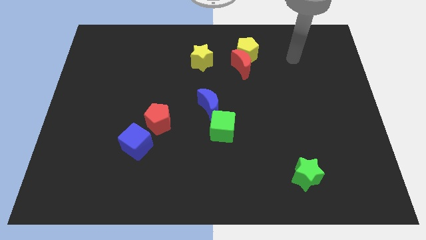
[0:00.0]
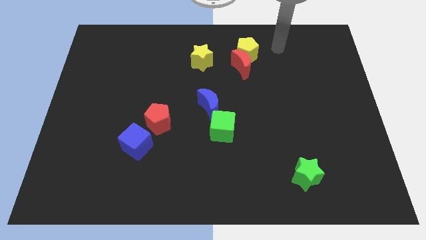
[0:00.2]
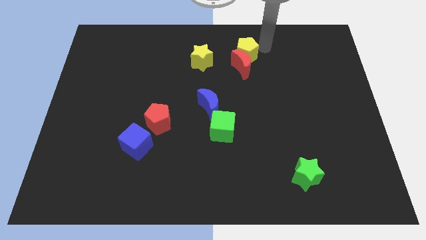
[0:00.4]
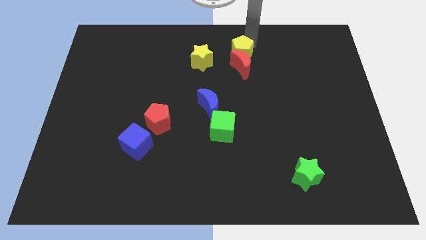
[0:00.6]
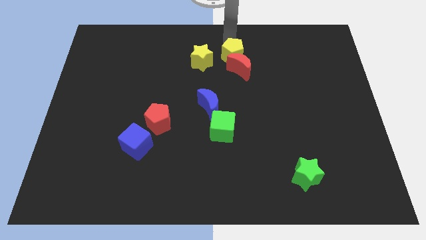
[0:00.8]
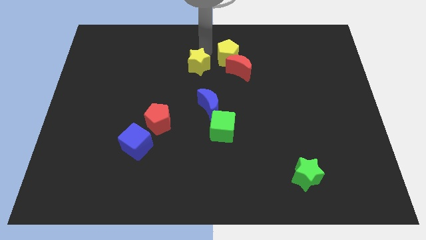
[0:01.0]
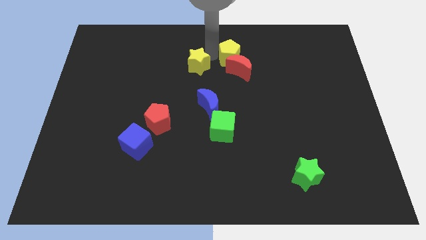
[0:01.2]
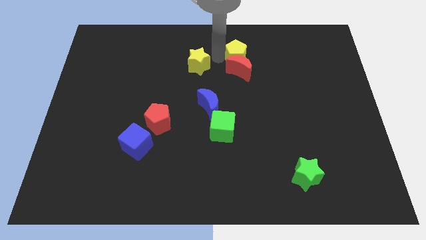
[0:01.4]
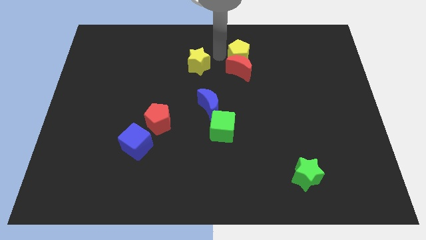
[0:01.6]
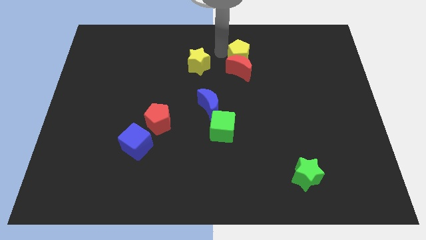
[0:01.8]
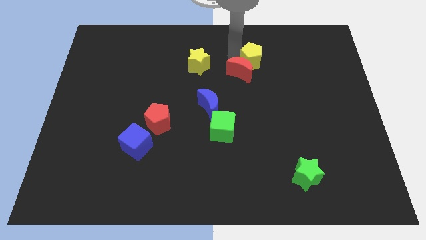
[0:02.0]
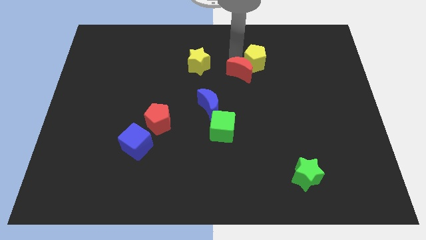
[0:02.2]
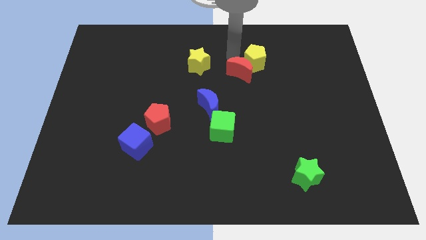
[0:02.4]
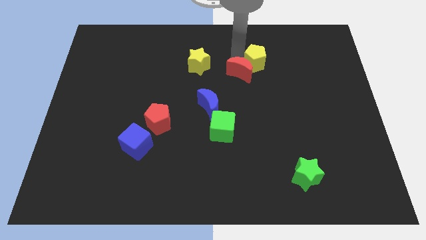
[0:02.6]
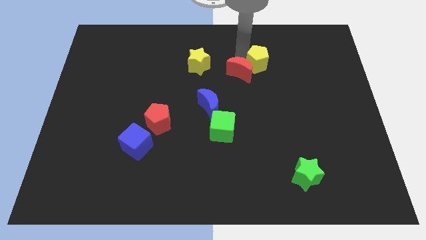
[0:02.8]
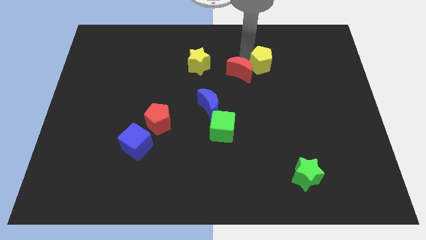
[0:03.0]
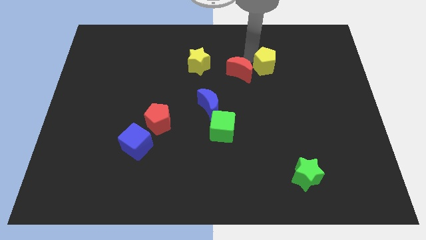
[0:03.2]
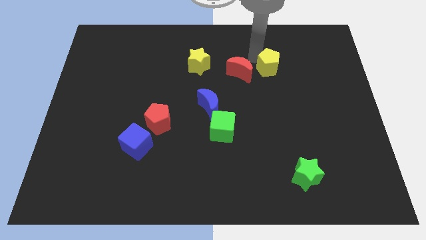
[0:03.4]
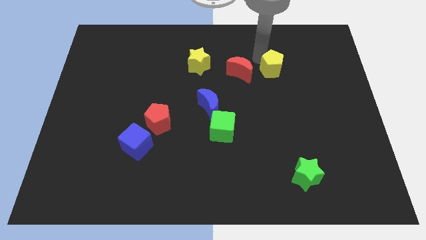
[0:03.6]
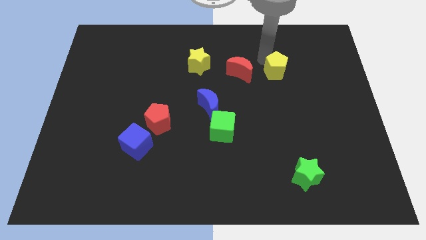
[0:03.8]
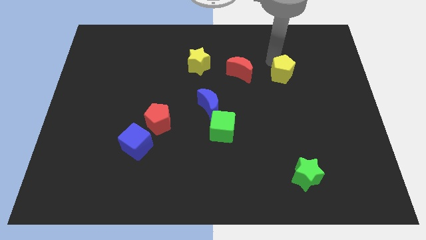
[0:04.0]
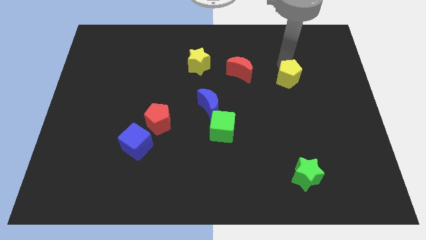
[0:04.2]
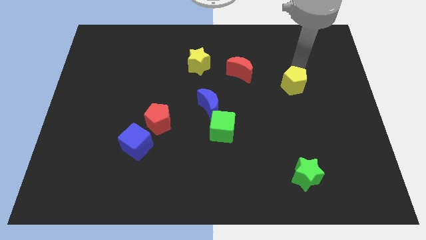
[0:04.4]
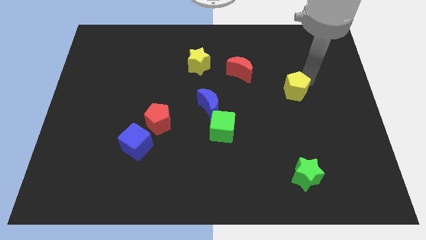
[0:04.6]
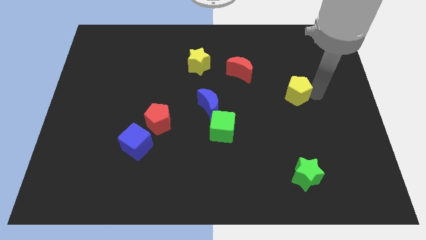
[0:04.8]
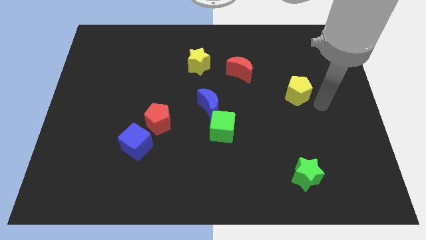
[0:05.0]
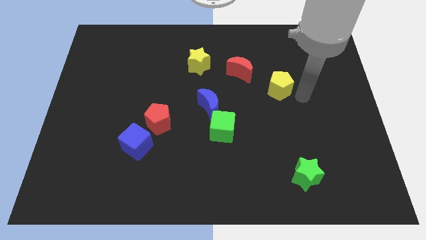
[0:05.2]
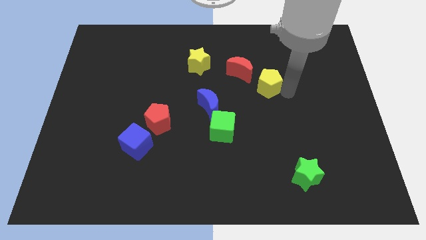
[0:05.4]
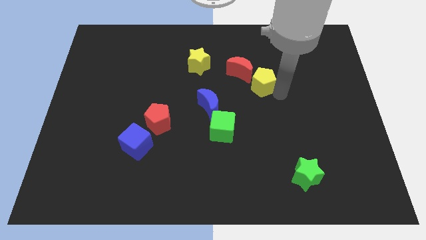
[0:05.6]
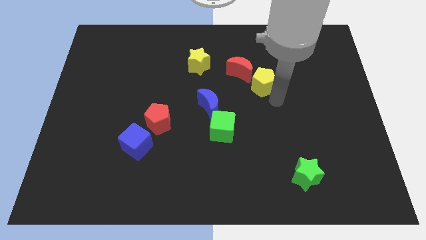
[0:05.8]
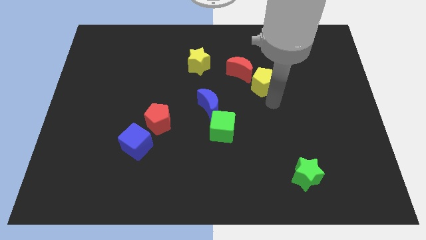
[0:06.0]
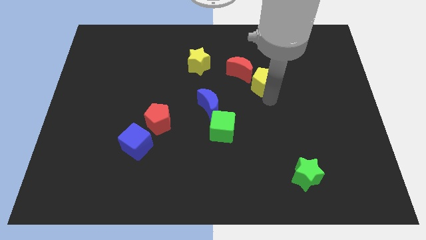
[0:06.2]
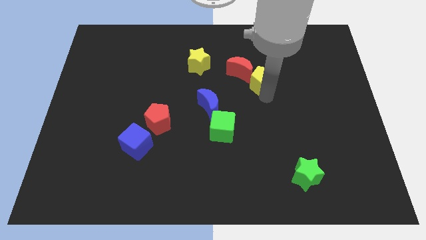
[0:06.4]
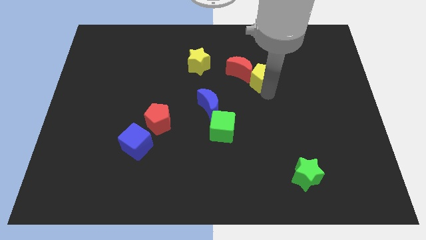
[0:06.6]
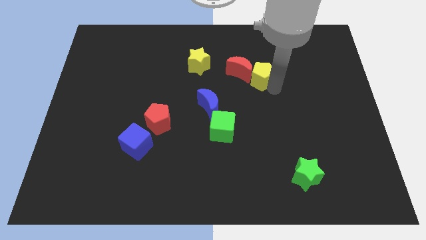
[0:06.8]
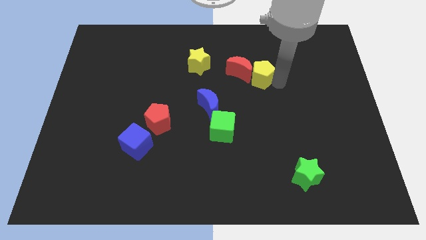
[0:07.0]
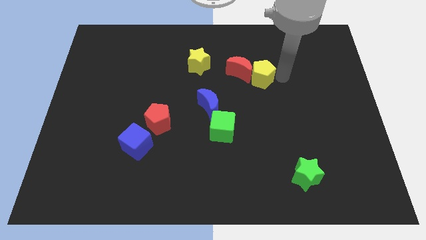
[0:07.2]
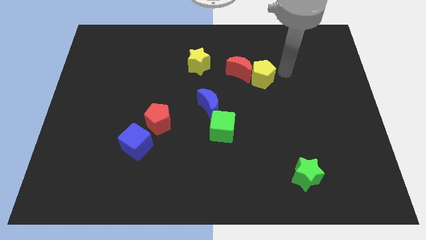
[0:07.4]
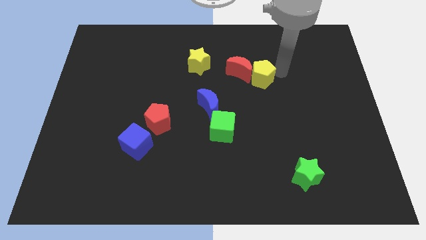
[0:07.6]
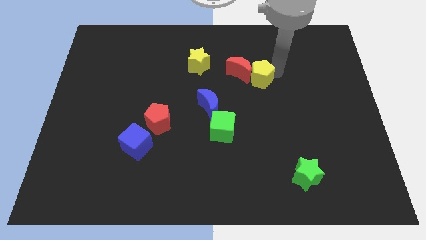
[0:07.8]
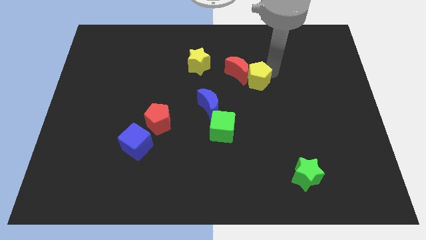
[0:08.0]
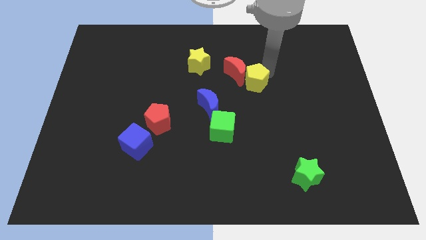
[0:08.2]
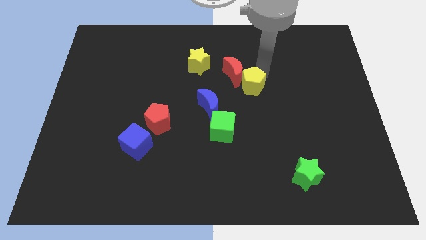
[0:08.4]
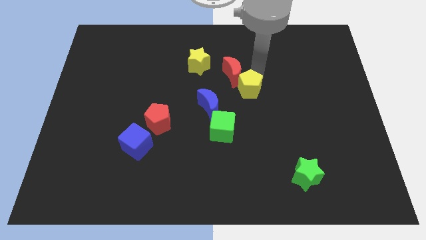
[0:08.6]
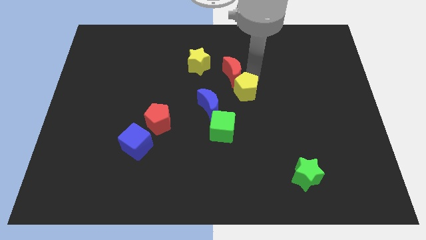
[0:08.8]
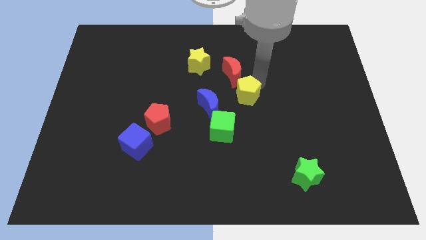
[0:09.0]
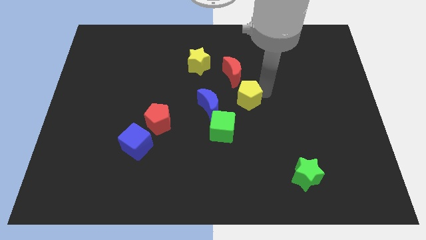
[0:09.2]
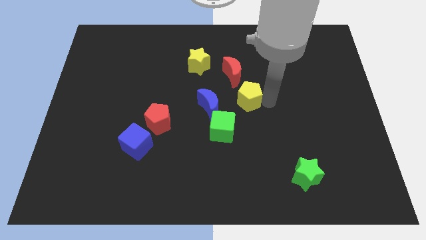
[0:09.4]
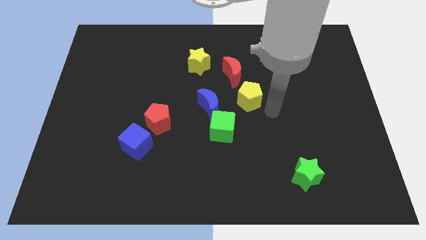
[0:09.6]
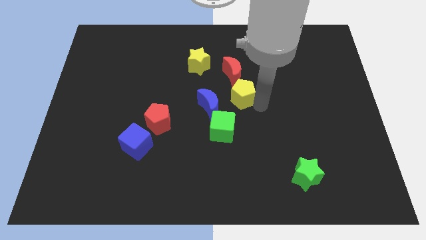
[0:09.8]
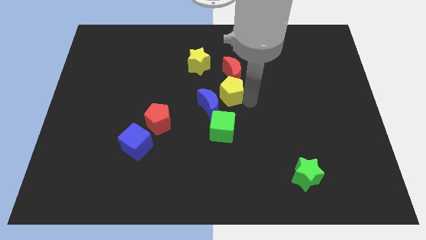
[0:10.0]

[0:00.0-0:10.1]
push the yellow pentagon close to the blue moon

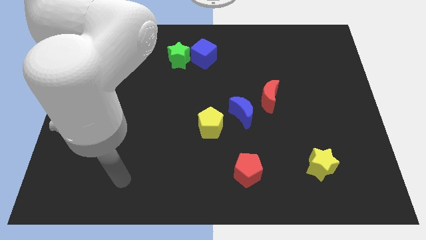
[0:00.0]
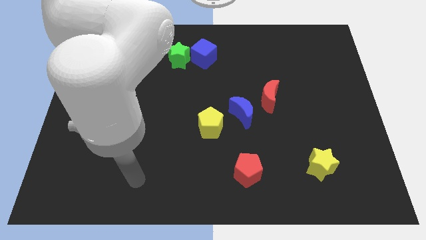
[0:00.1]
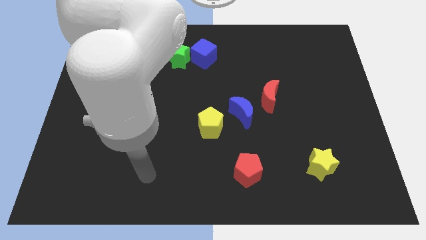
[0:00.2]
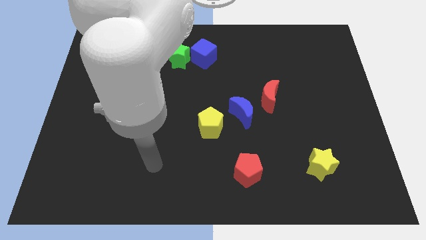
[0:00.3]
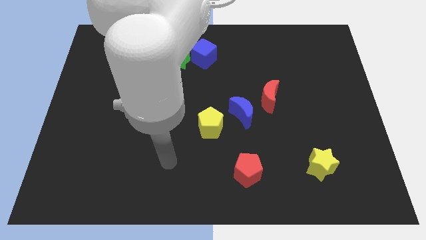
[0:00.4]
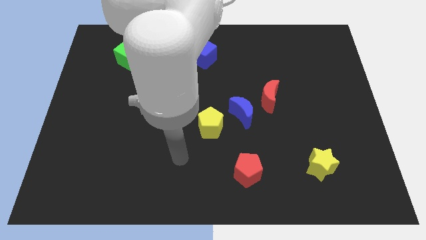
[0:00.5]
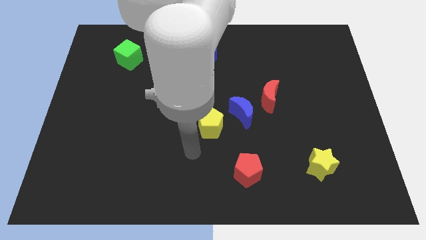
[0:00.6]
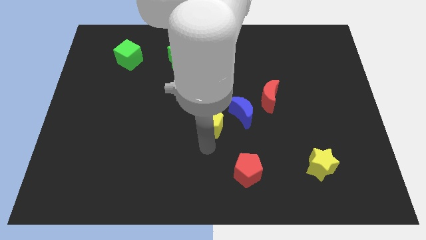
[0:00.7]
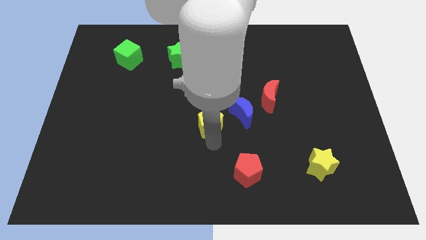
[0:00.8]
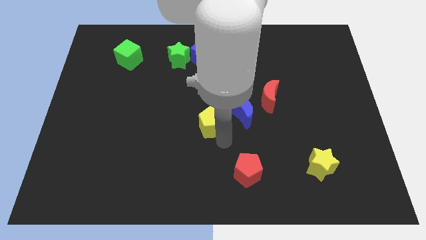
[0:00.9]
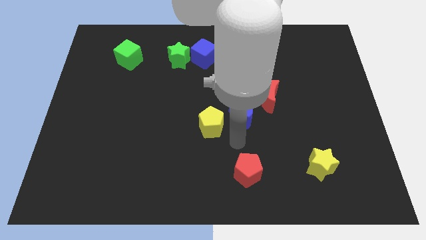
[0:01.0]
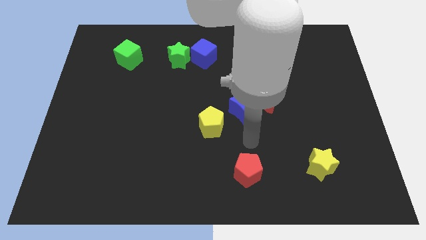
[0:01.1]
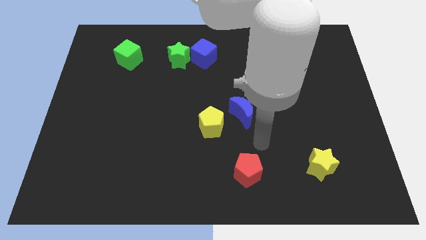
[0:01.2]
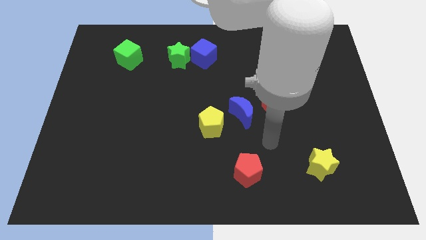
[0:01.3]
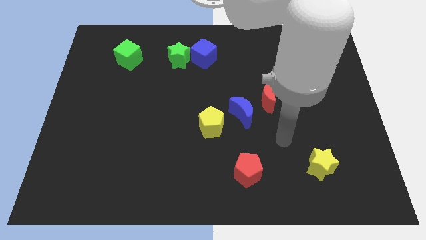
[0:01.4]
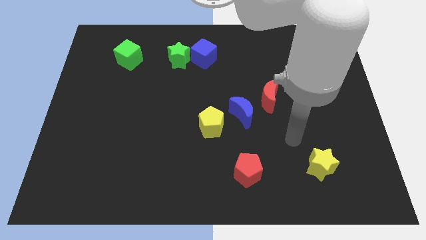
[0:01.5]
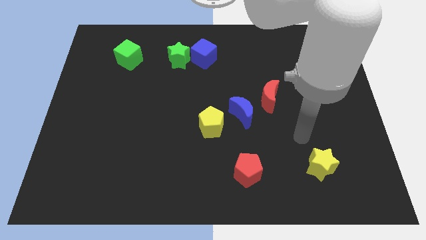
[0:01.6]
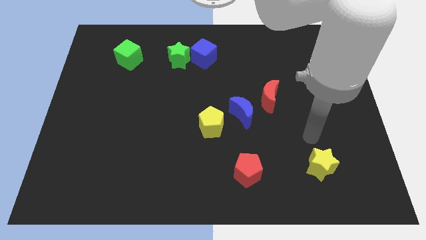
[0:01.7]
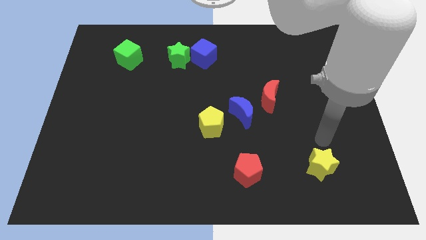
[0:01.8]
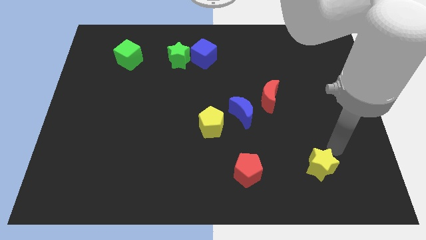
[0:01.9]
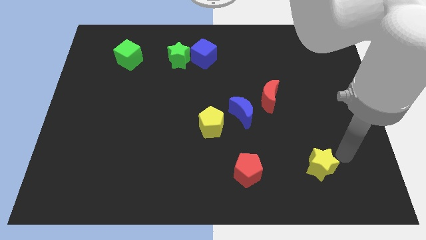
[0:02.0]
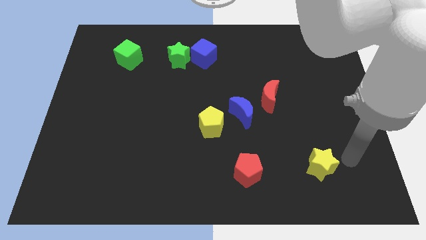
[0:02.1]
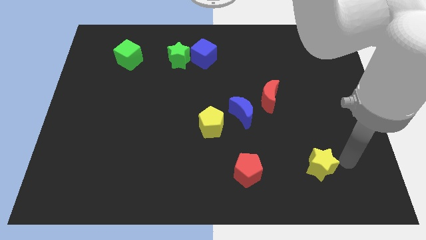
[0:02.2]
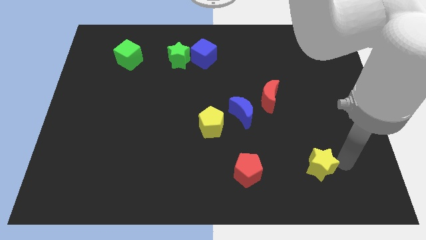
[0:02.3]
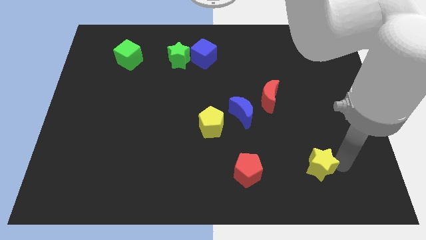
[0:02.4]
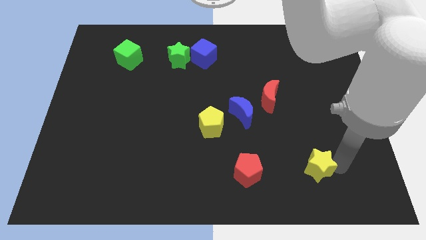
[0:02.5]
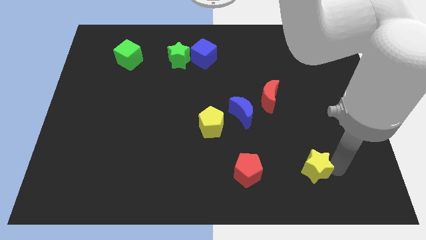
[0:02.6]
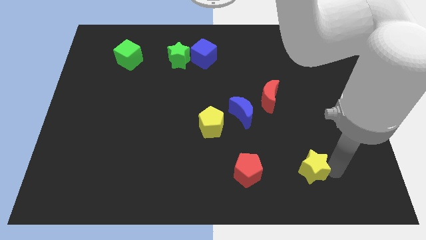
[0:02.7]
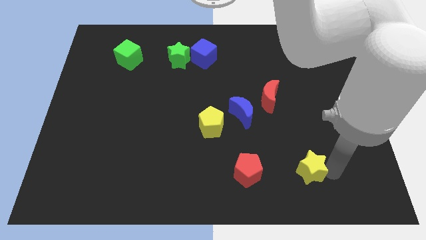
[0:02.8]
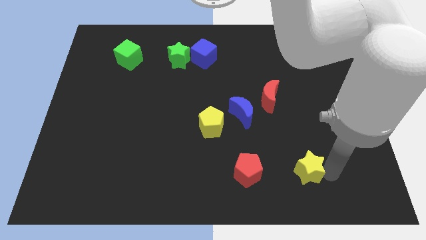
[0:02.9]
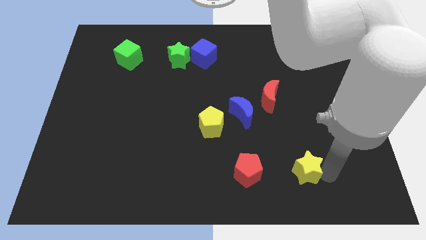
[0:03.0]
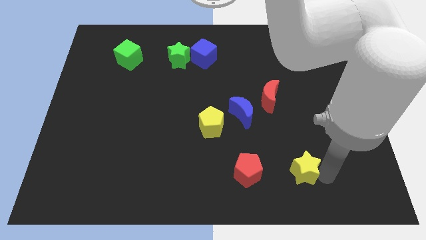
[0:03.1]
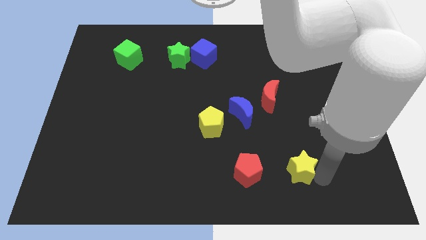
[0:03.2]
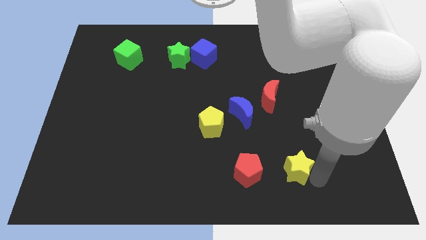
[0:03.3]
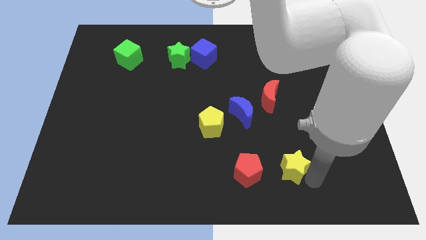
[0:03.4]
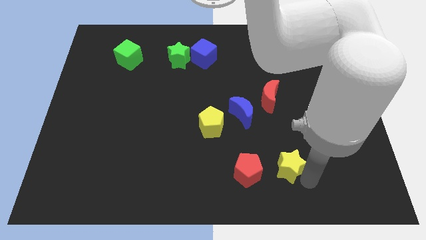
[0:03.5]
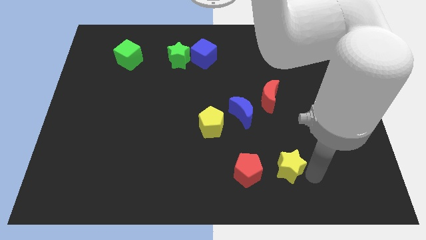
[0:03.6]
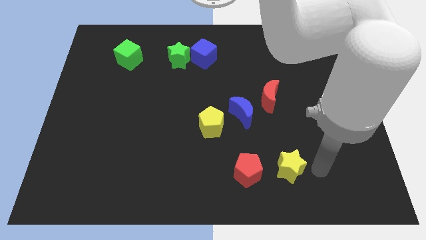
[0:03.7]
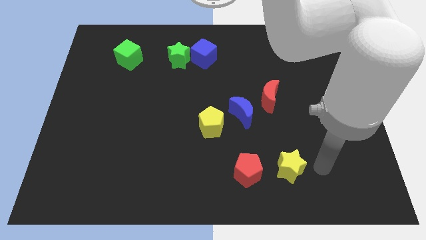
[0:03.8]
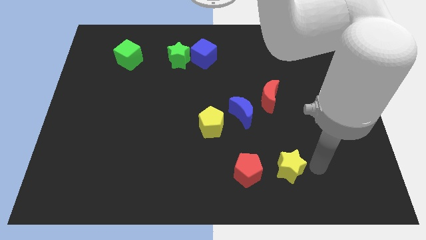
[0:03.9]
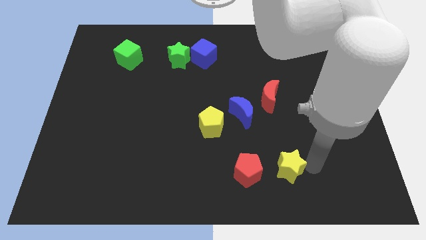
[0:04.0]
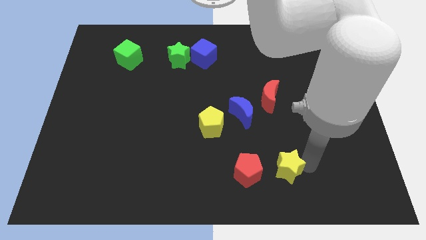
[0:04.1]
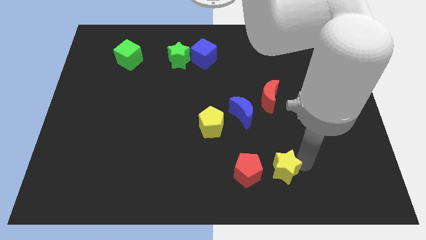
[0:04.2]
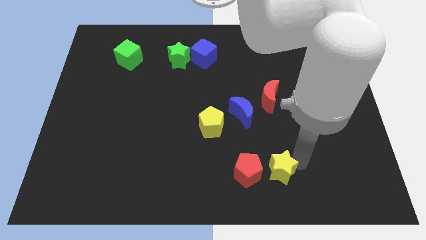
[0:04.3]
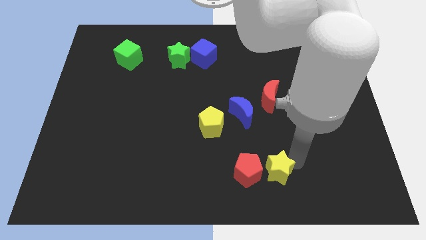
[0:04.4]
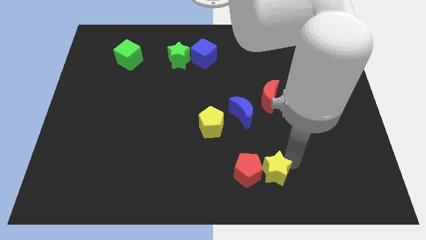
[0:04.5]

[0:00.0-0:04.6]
push the yellow star to the red pentagon
